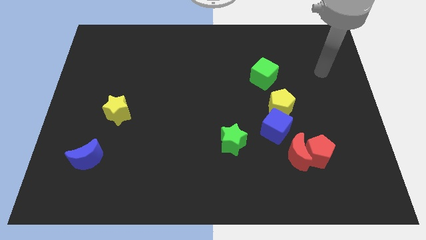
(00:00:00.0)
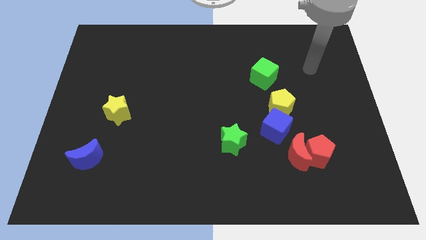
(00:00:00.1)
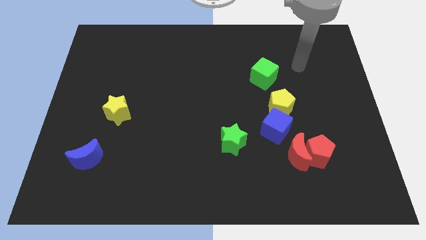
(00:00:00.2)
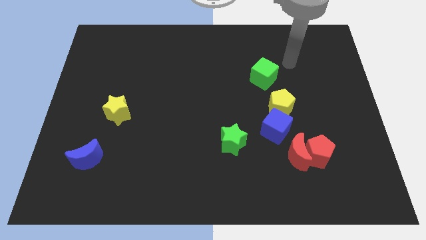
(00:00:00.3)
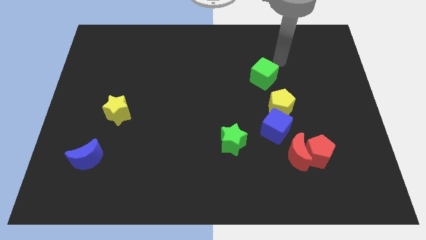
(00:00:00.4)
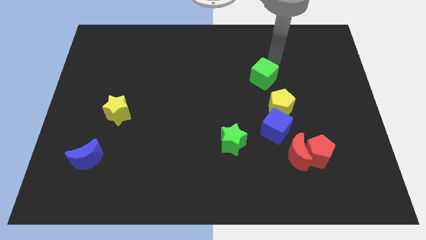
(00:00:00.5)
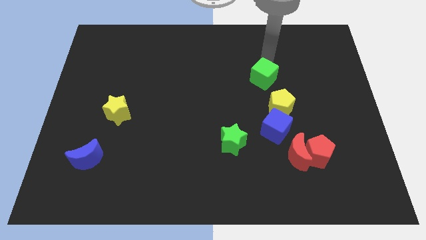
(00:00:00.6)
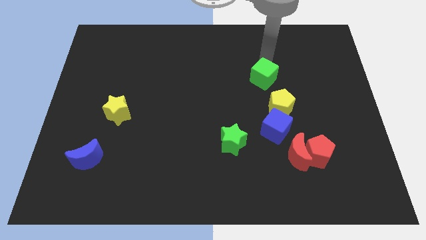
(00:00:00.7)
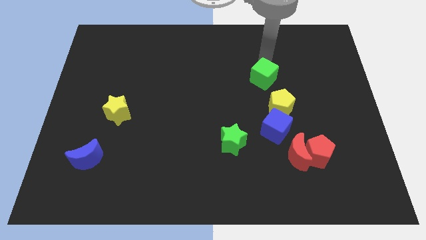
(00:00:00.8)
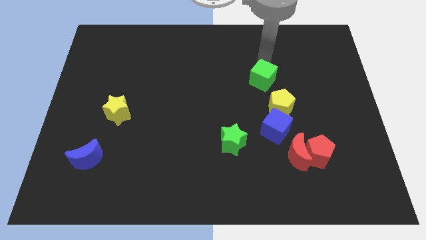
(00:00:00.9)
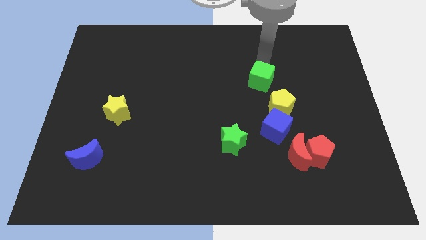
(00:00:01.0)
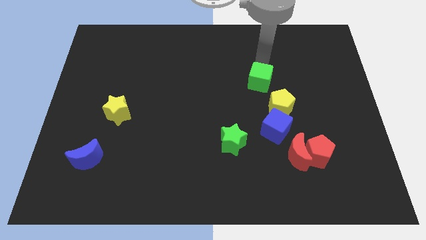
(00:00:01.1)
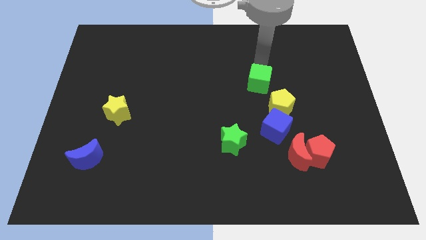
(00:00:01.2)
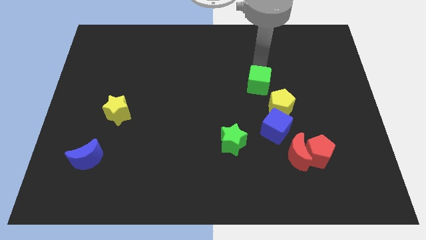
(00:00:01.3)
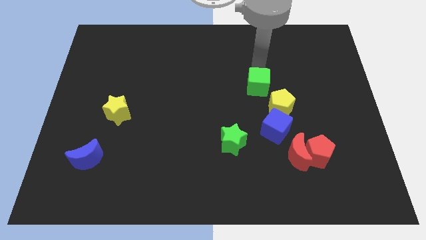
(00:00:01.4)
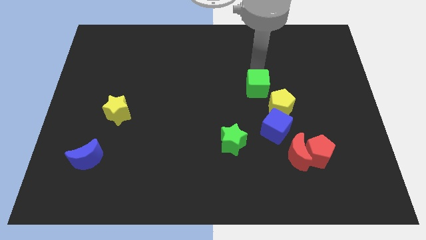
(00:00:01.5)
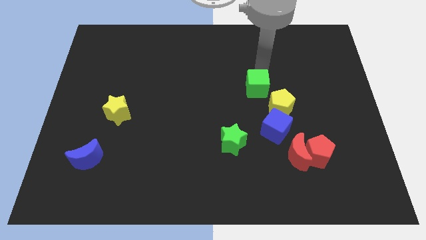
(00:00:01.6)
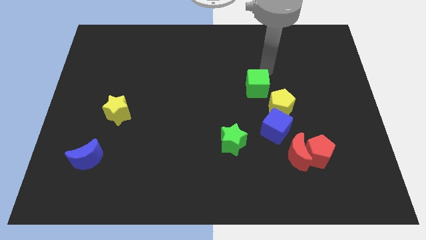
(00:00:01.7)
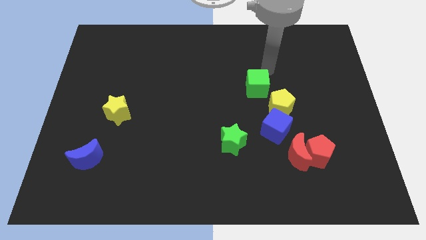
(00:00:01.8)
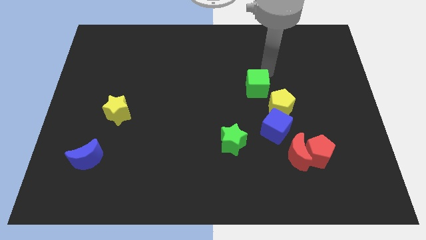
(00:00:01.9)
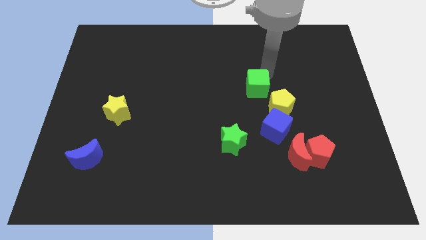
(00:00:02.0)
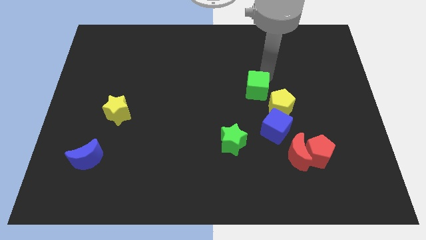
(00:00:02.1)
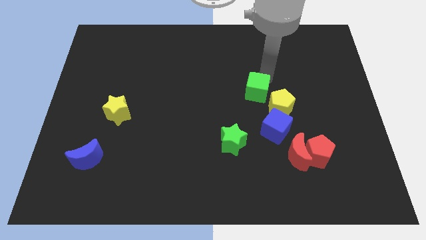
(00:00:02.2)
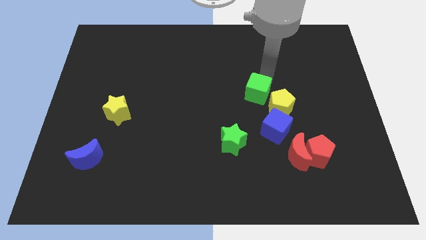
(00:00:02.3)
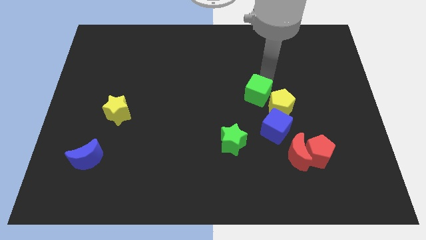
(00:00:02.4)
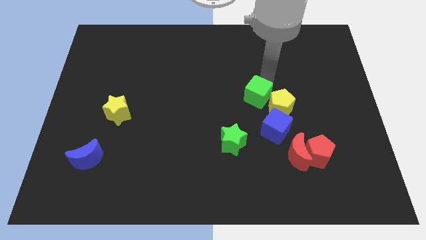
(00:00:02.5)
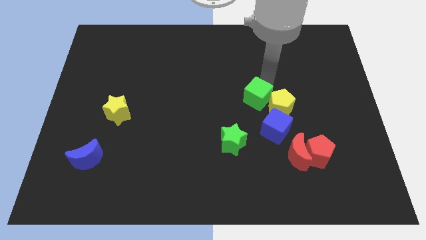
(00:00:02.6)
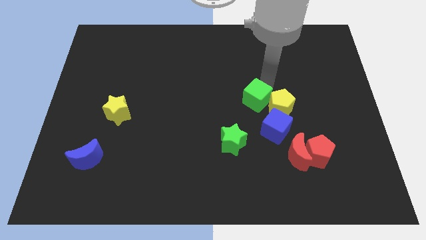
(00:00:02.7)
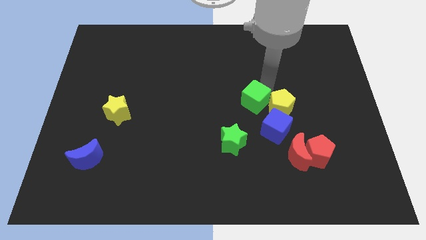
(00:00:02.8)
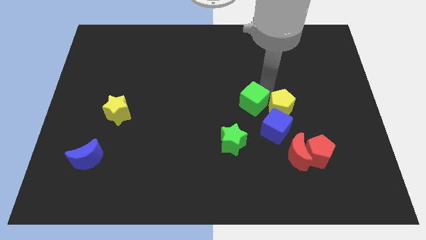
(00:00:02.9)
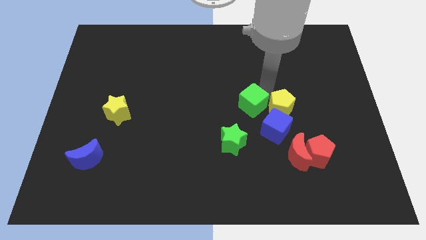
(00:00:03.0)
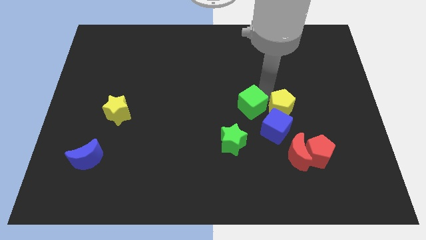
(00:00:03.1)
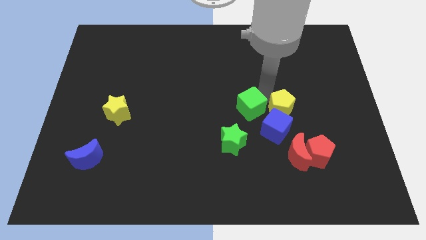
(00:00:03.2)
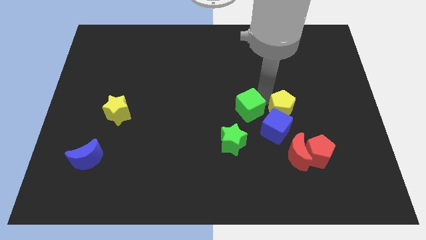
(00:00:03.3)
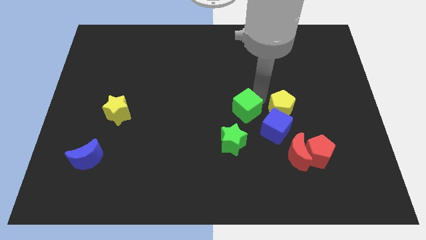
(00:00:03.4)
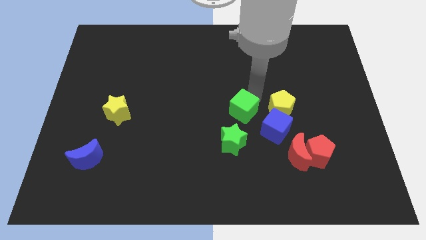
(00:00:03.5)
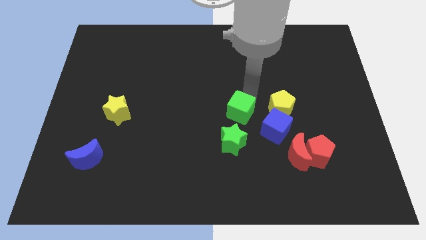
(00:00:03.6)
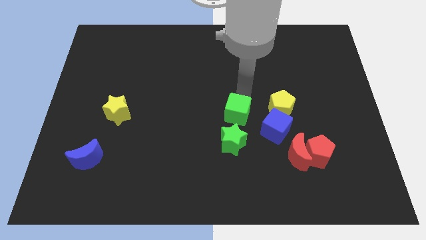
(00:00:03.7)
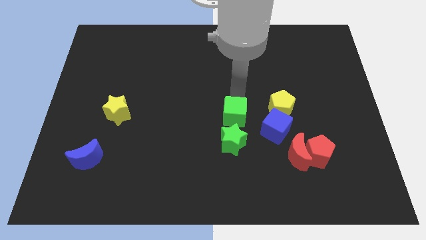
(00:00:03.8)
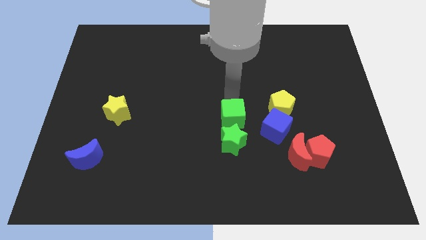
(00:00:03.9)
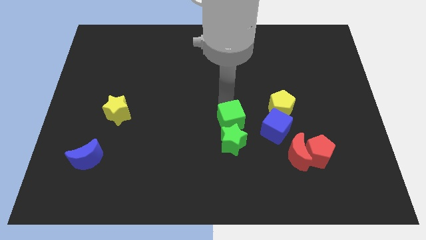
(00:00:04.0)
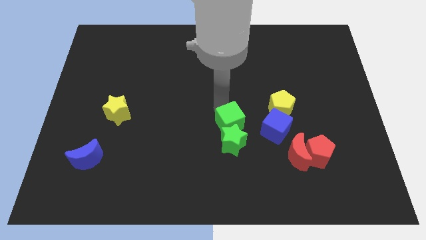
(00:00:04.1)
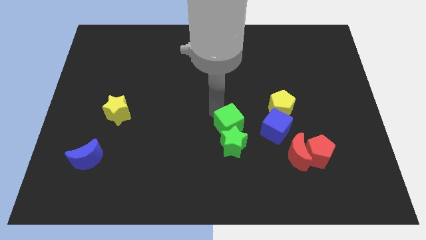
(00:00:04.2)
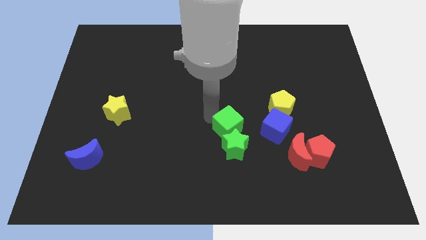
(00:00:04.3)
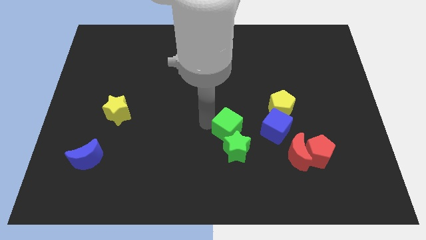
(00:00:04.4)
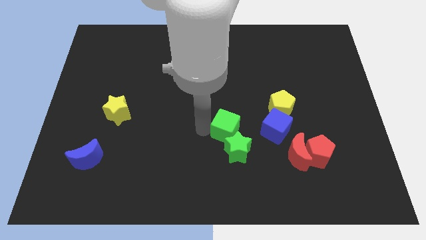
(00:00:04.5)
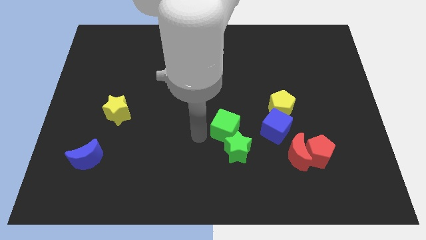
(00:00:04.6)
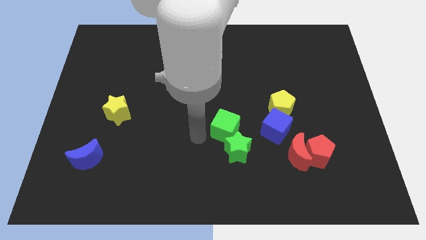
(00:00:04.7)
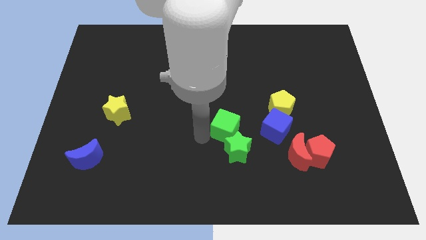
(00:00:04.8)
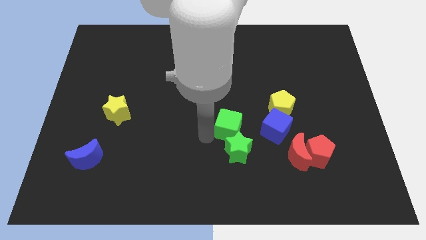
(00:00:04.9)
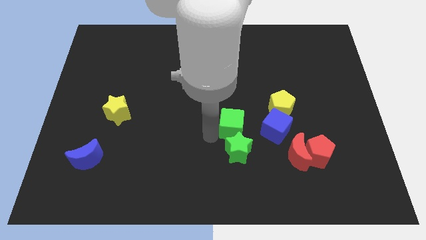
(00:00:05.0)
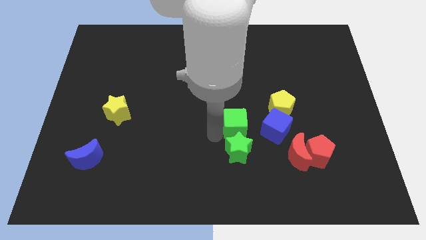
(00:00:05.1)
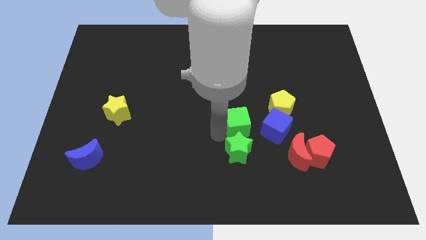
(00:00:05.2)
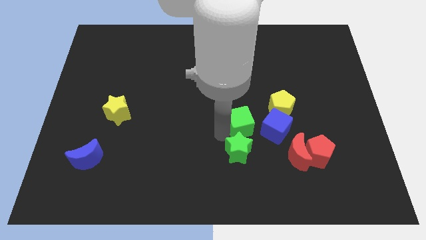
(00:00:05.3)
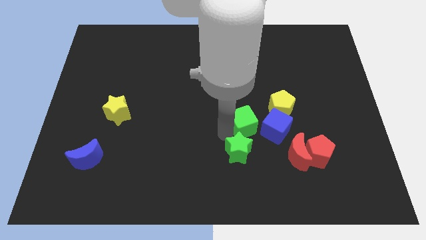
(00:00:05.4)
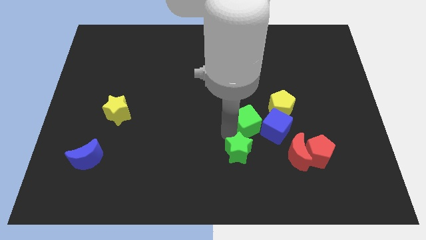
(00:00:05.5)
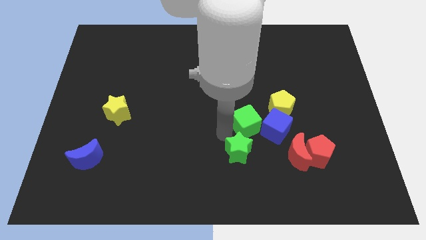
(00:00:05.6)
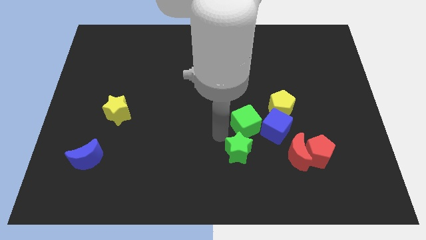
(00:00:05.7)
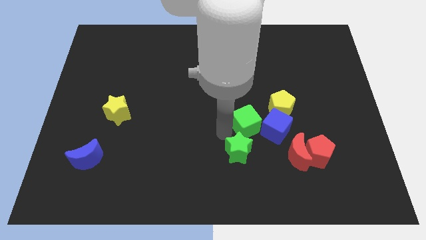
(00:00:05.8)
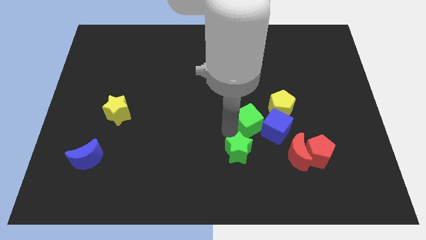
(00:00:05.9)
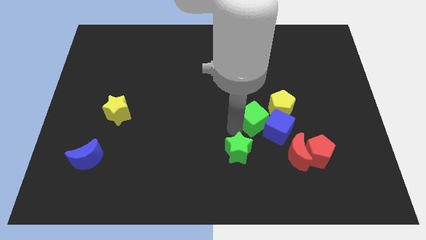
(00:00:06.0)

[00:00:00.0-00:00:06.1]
push the green cube towards the blue cube

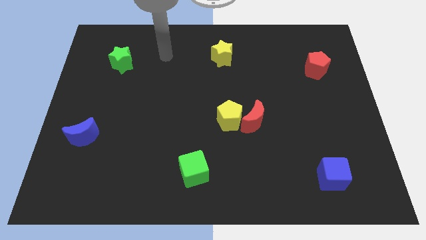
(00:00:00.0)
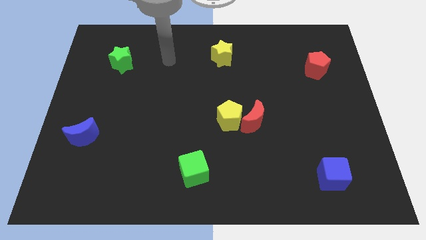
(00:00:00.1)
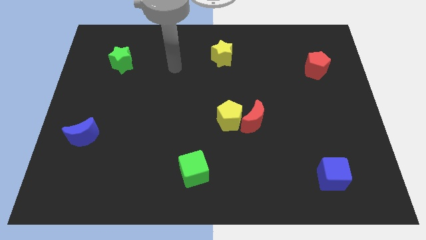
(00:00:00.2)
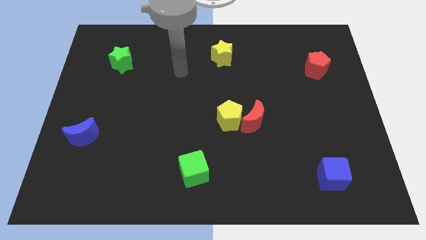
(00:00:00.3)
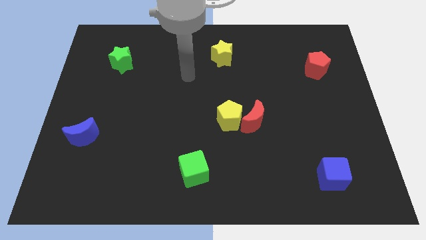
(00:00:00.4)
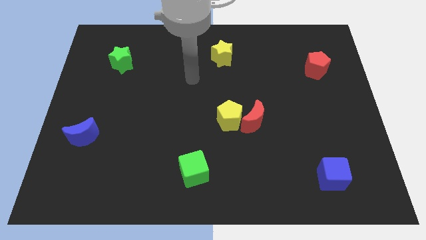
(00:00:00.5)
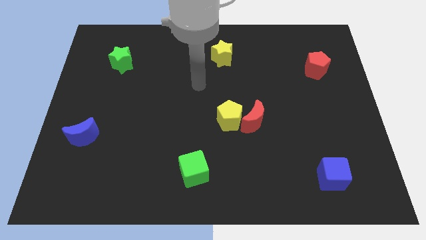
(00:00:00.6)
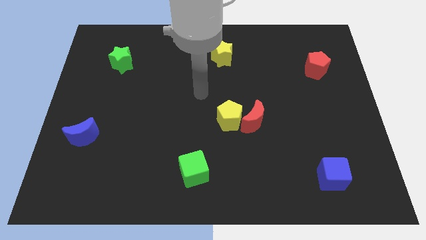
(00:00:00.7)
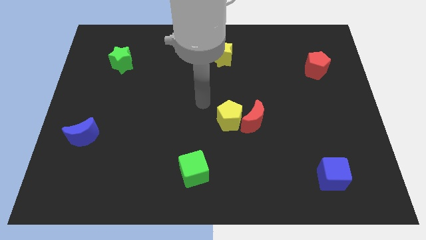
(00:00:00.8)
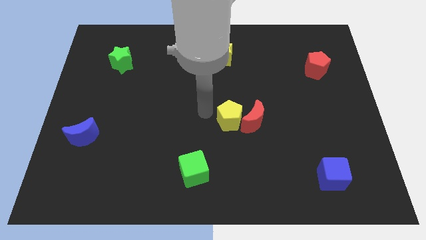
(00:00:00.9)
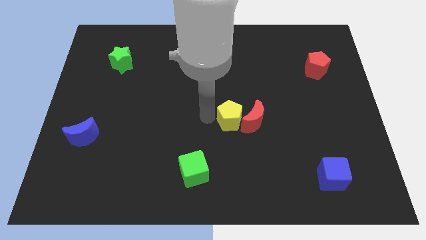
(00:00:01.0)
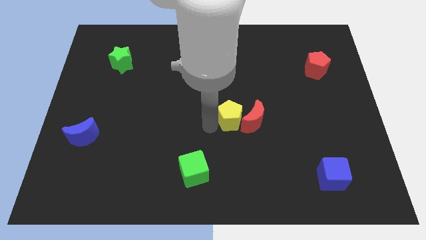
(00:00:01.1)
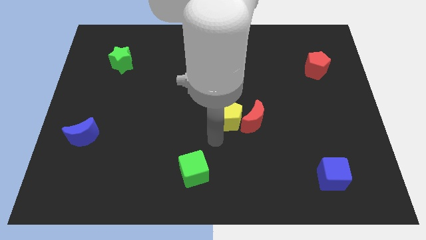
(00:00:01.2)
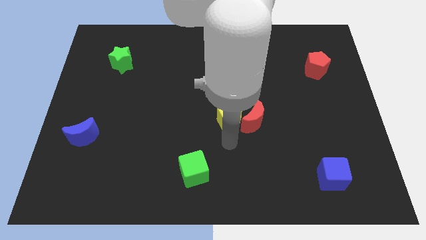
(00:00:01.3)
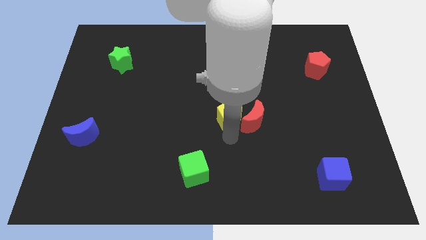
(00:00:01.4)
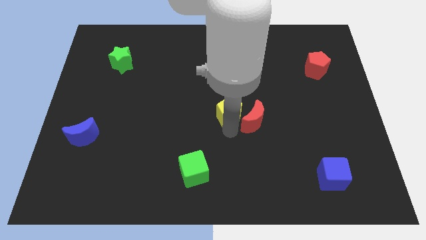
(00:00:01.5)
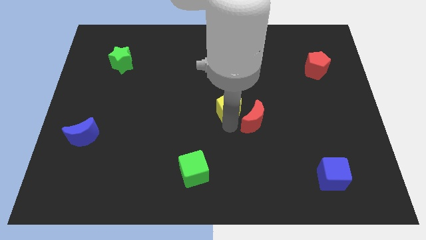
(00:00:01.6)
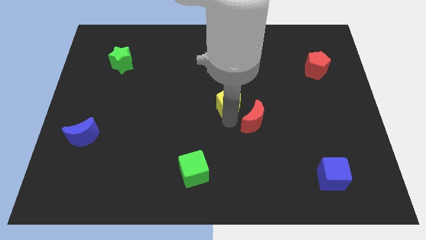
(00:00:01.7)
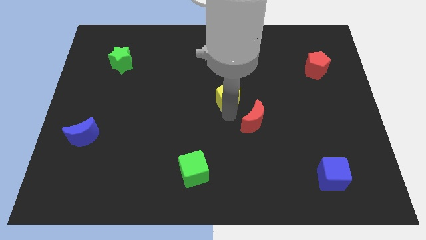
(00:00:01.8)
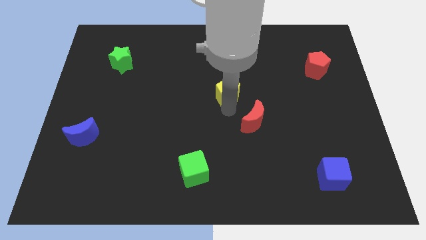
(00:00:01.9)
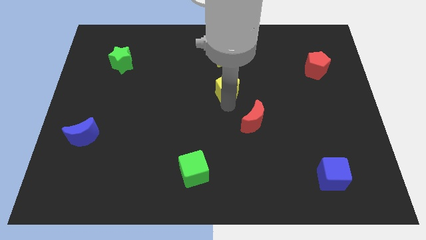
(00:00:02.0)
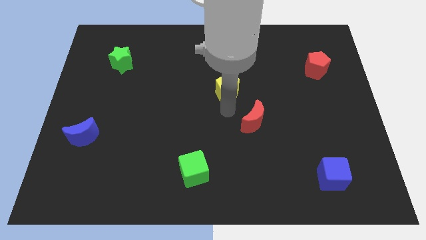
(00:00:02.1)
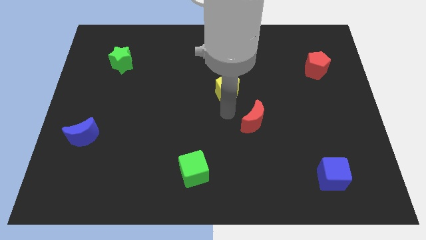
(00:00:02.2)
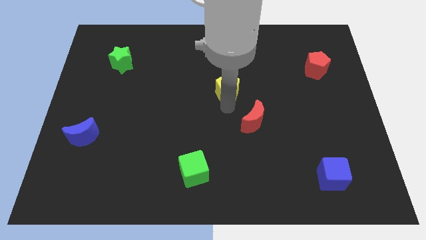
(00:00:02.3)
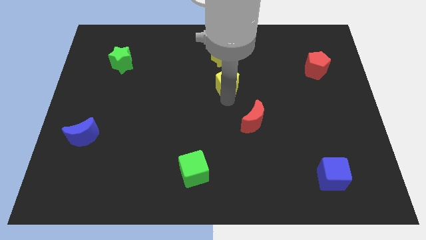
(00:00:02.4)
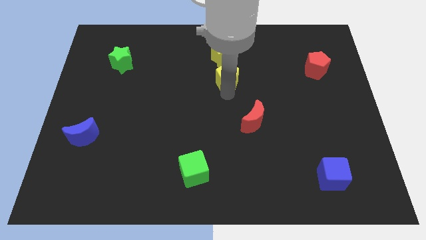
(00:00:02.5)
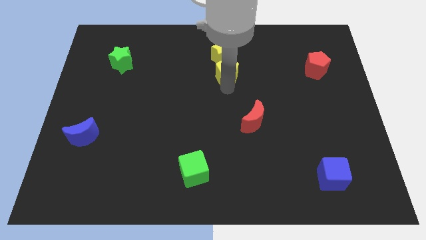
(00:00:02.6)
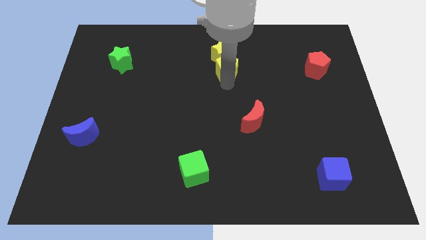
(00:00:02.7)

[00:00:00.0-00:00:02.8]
put the yellow pentagon towards the yellow star
